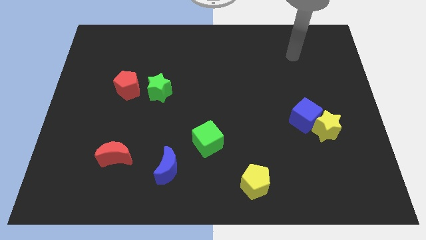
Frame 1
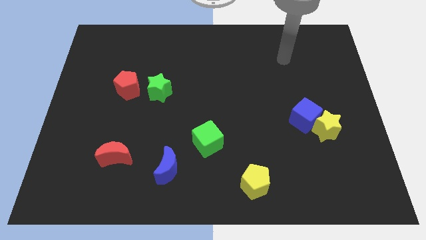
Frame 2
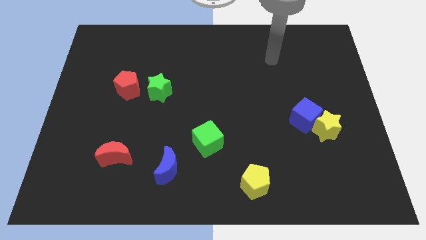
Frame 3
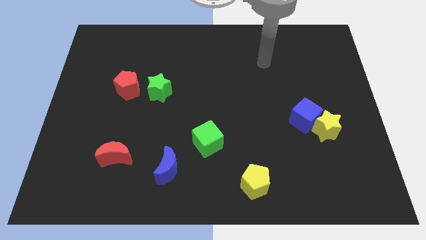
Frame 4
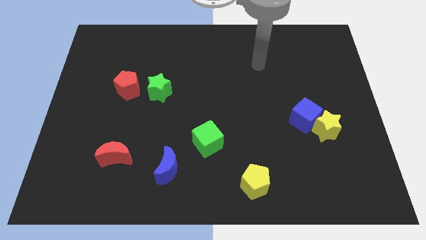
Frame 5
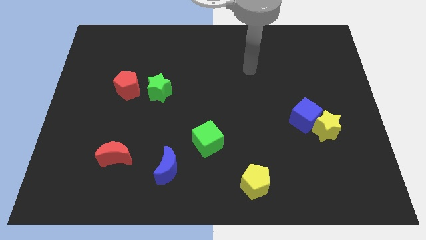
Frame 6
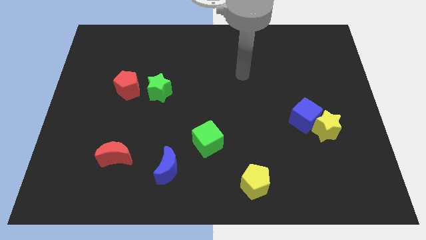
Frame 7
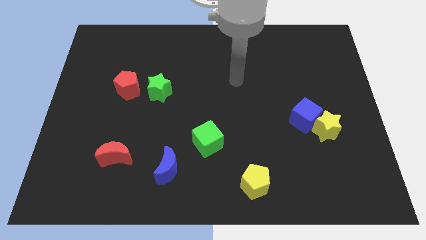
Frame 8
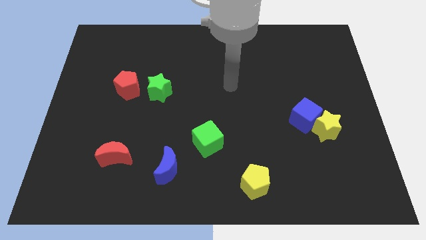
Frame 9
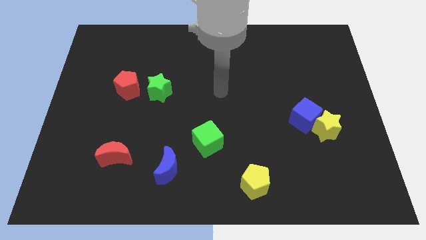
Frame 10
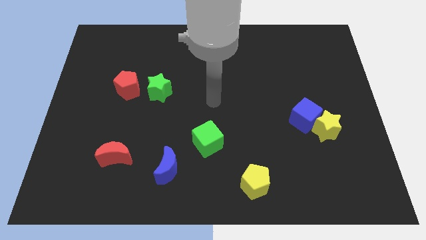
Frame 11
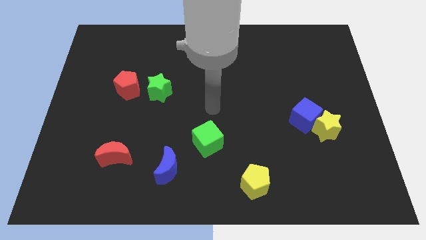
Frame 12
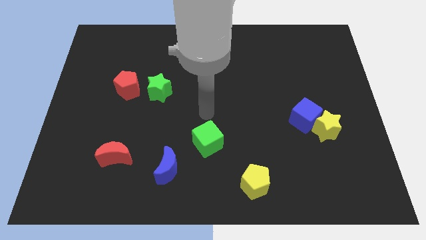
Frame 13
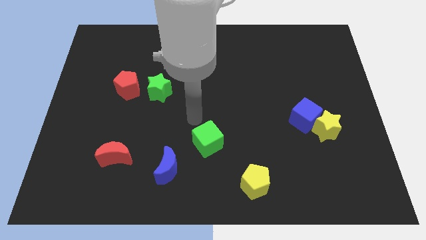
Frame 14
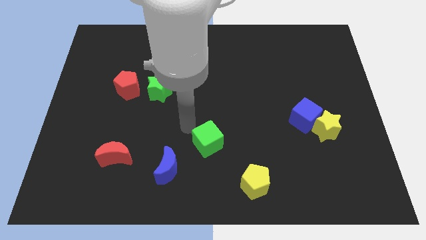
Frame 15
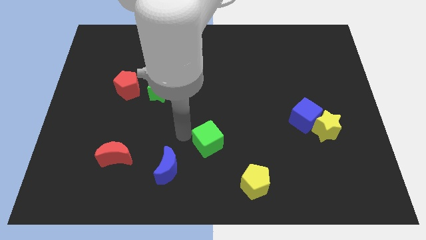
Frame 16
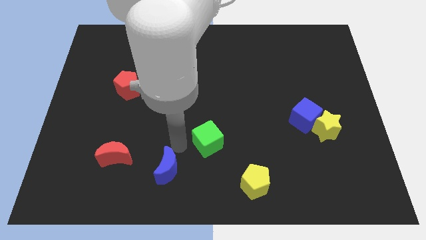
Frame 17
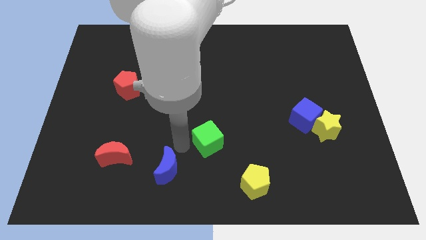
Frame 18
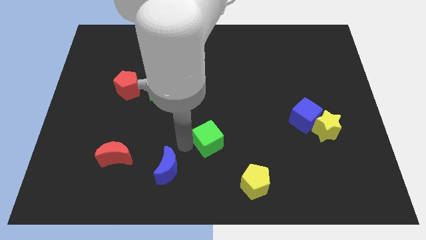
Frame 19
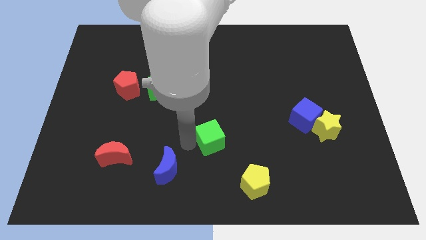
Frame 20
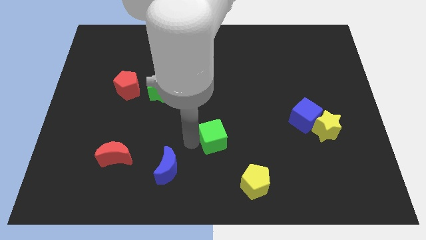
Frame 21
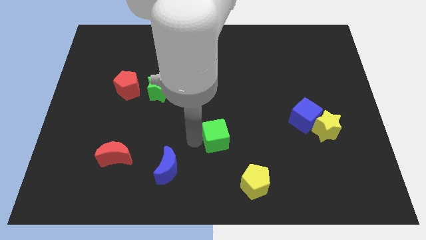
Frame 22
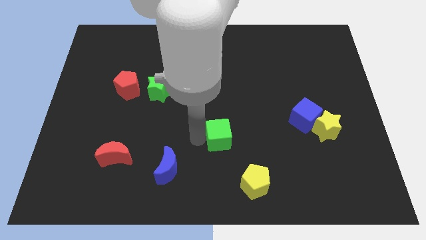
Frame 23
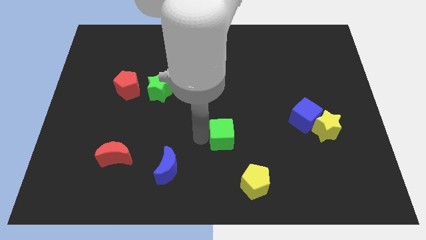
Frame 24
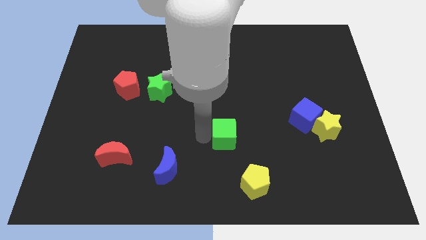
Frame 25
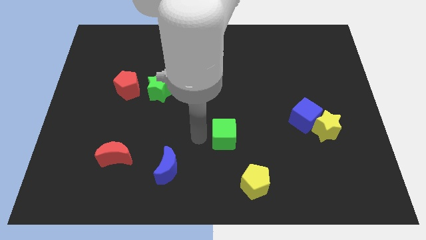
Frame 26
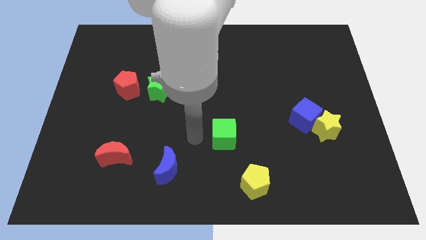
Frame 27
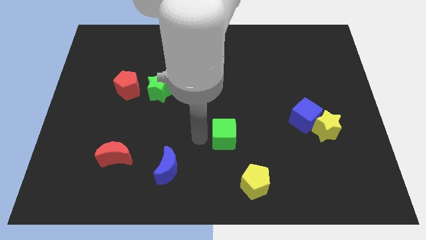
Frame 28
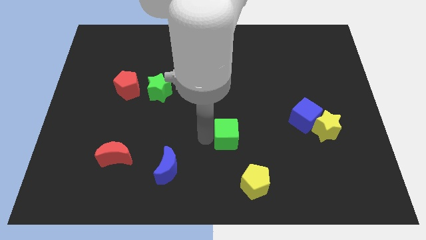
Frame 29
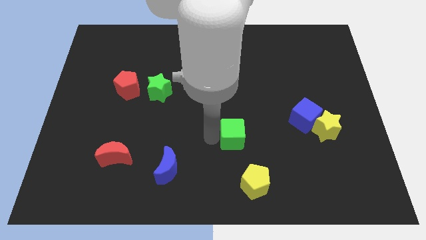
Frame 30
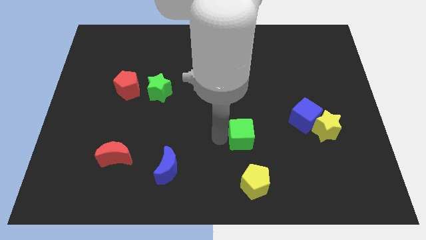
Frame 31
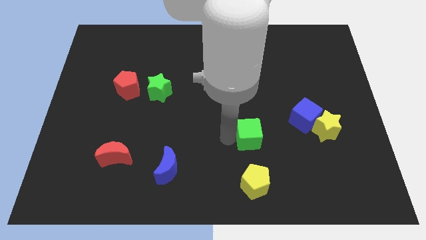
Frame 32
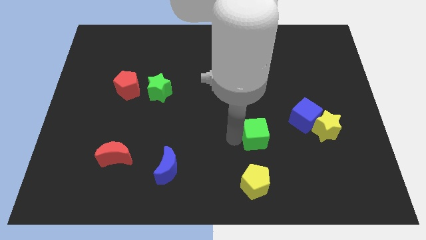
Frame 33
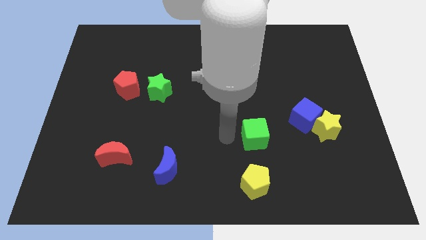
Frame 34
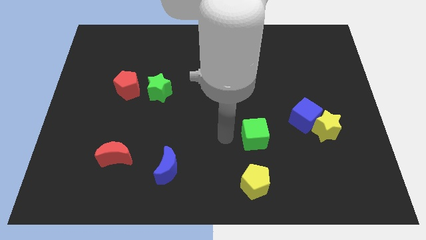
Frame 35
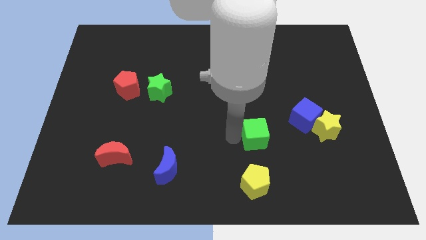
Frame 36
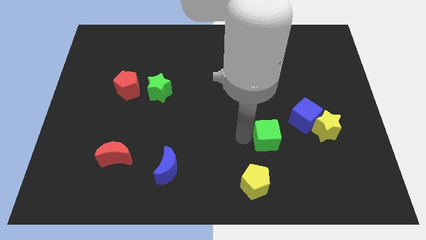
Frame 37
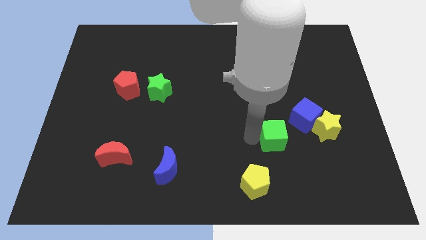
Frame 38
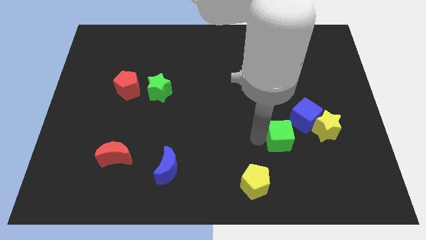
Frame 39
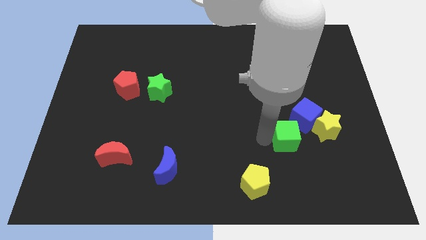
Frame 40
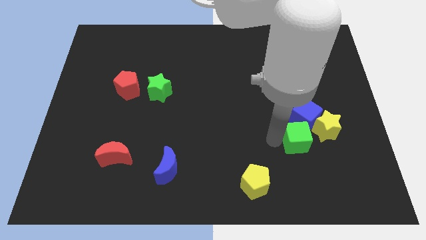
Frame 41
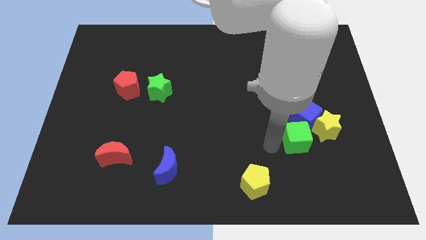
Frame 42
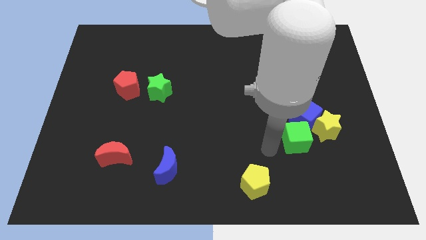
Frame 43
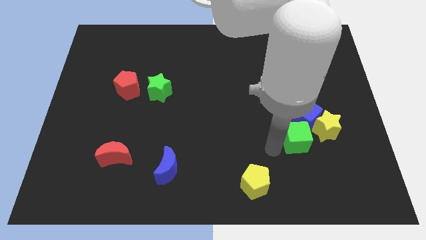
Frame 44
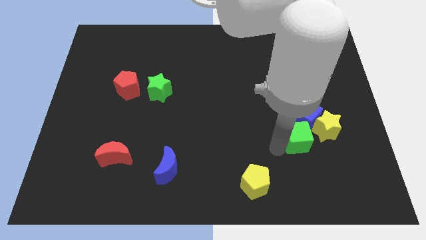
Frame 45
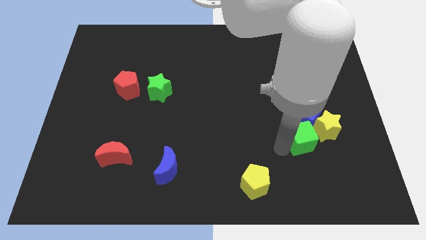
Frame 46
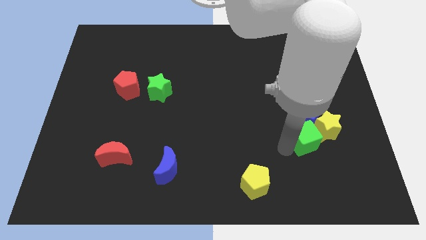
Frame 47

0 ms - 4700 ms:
move the green cube towards the yellow star

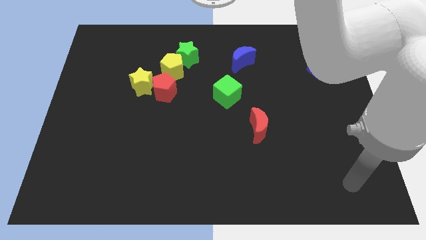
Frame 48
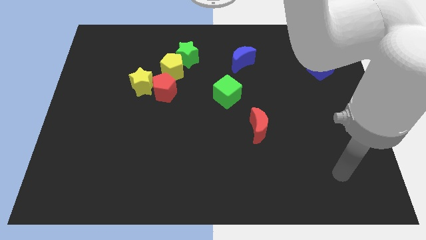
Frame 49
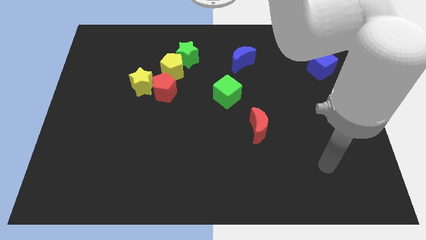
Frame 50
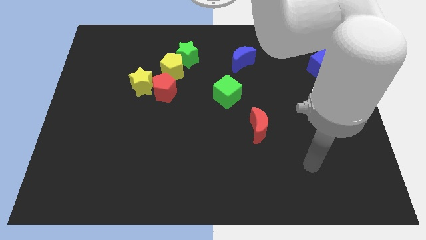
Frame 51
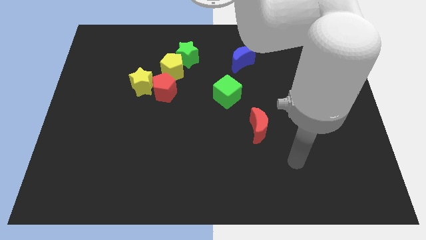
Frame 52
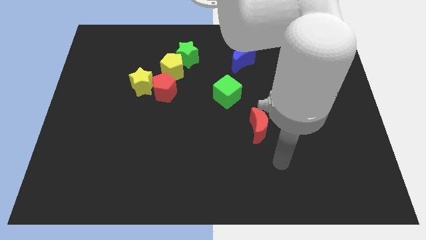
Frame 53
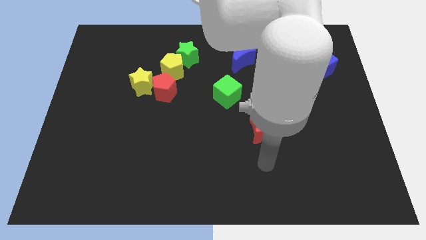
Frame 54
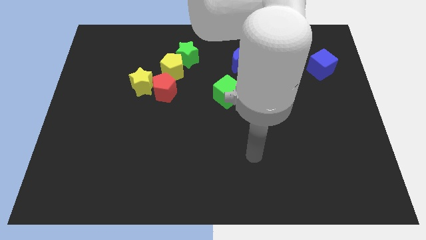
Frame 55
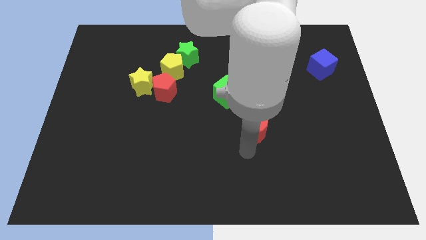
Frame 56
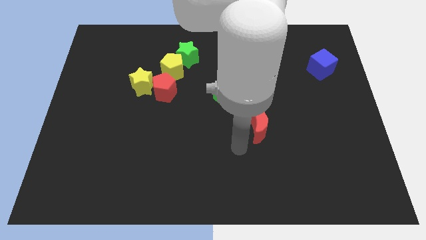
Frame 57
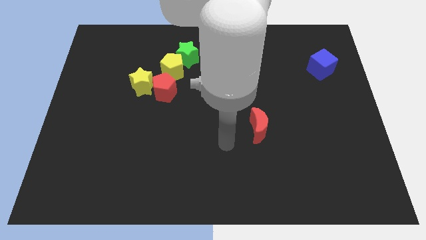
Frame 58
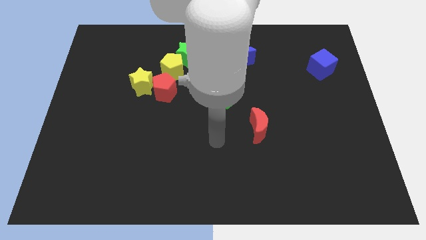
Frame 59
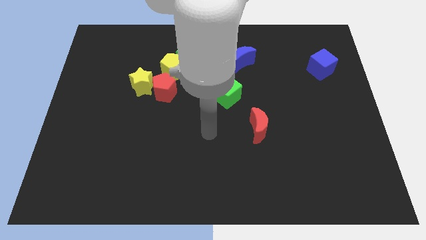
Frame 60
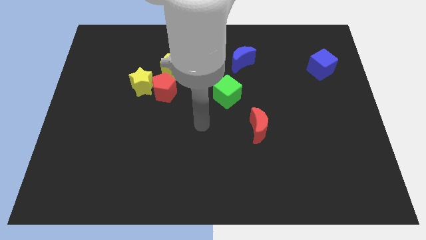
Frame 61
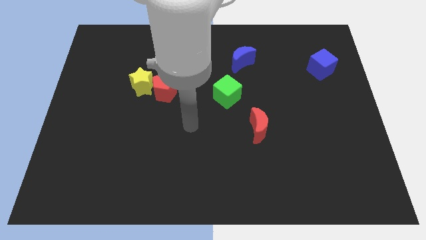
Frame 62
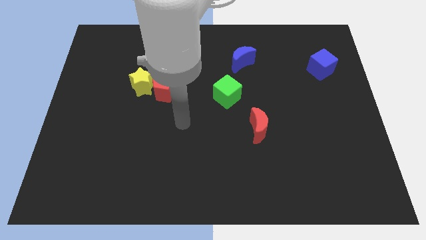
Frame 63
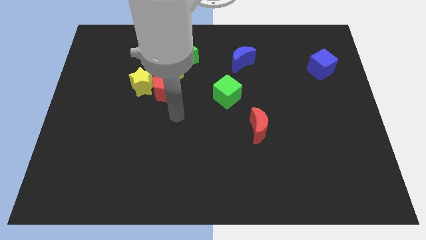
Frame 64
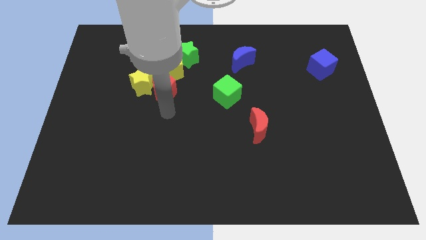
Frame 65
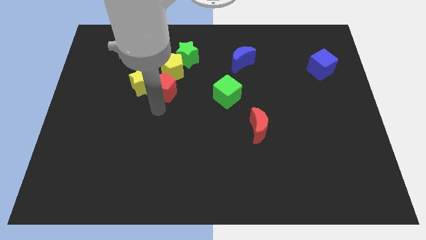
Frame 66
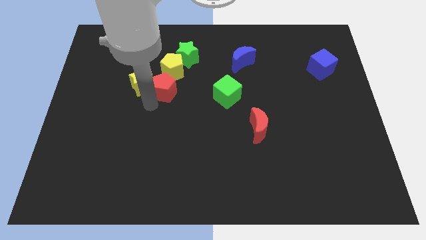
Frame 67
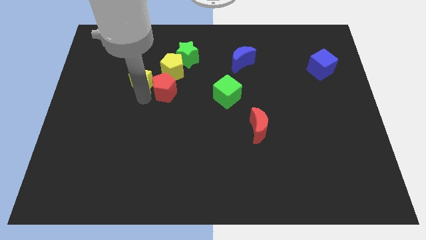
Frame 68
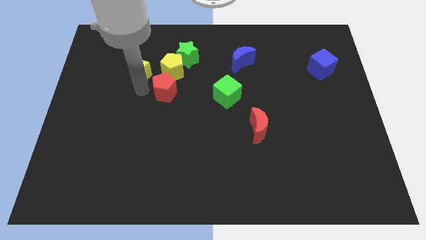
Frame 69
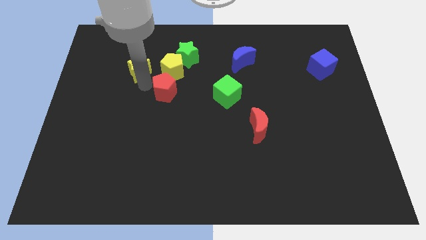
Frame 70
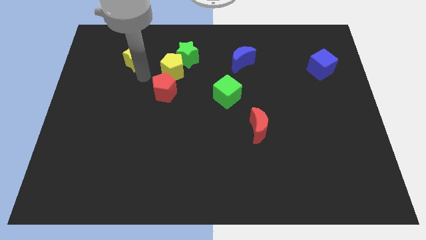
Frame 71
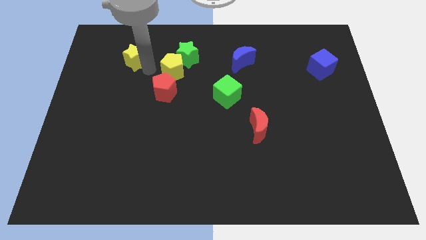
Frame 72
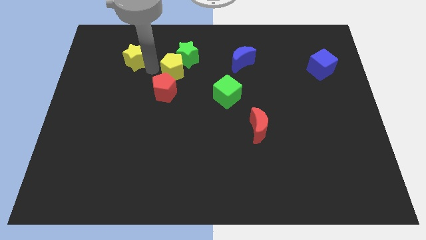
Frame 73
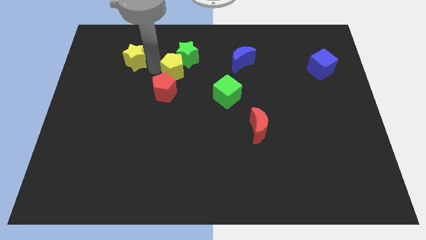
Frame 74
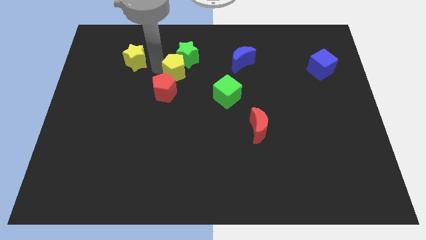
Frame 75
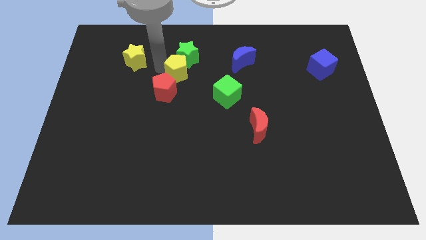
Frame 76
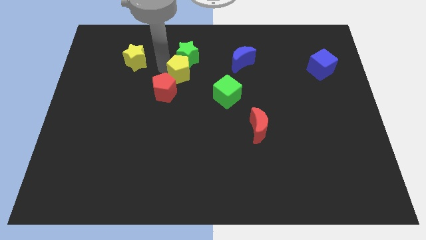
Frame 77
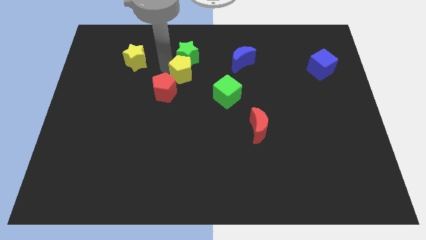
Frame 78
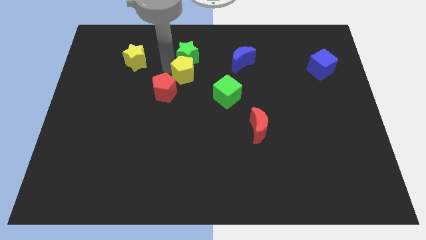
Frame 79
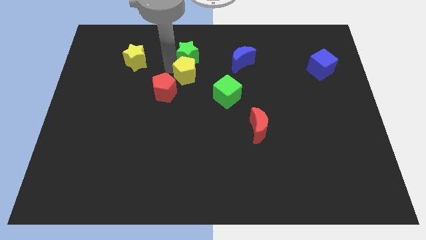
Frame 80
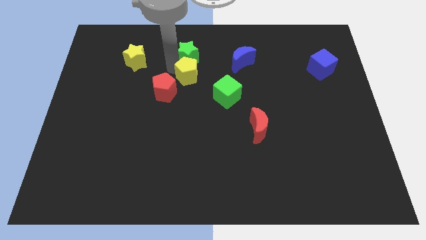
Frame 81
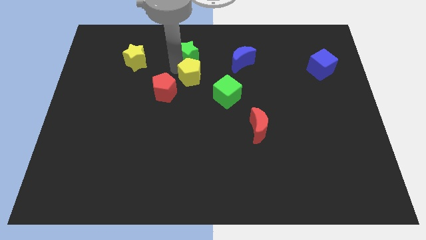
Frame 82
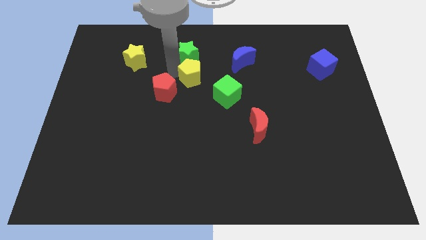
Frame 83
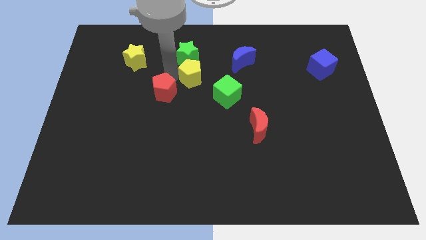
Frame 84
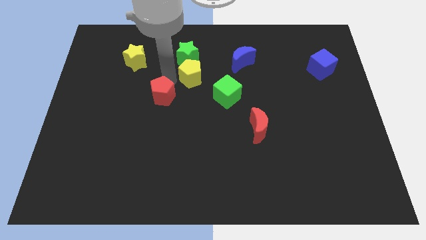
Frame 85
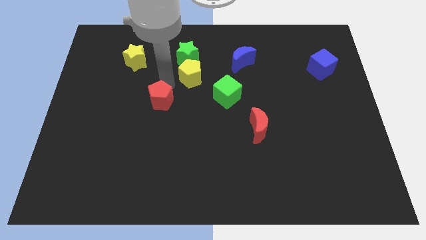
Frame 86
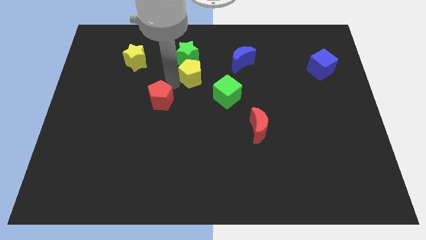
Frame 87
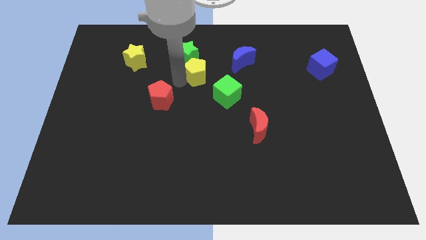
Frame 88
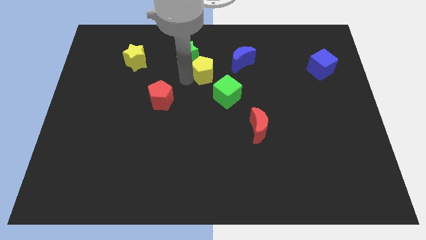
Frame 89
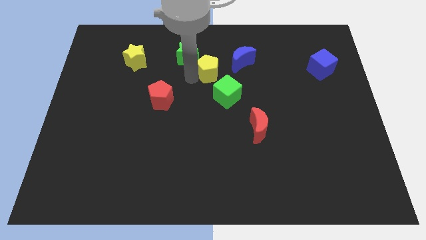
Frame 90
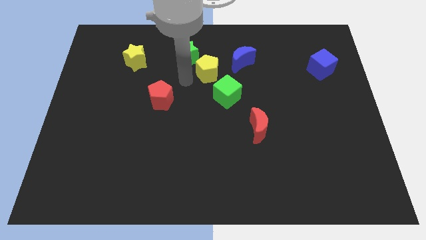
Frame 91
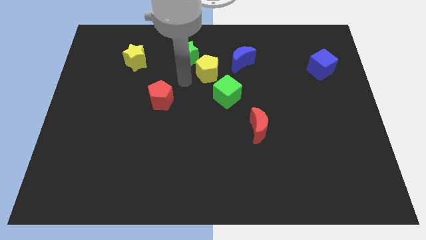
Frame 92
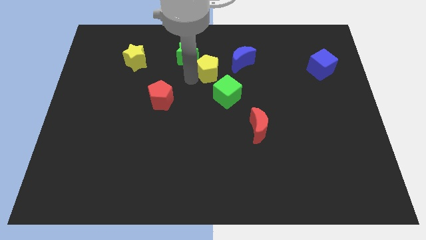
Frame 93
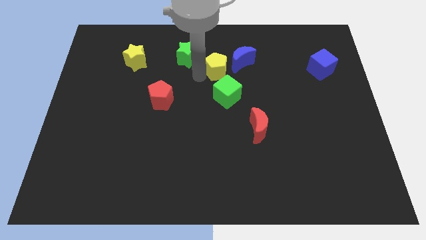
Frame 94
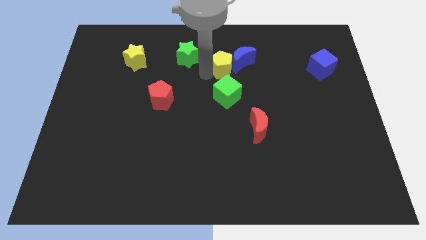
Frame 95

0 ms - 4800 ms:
put the yellow pentagon to the blue moon
